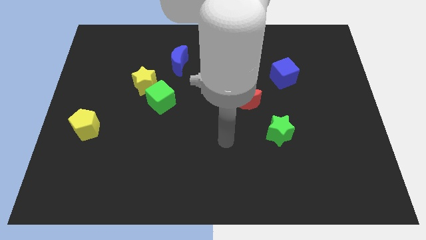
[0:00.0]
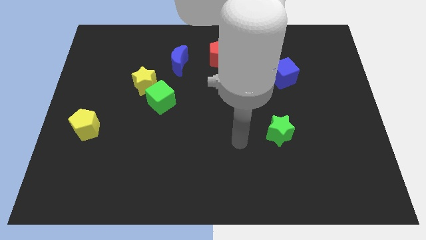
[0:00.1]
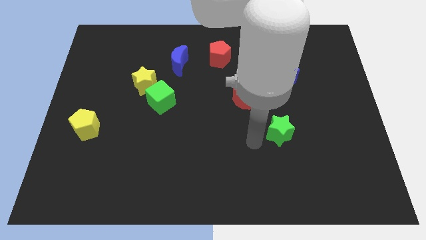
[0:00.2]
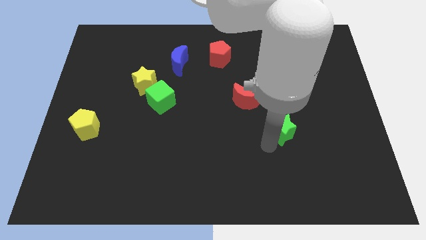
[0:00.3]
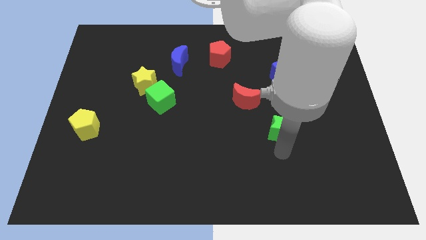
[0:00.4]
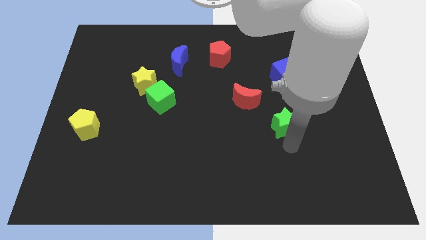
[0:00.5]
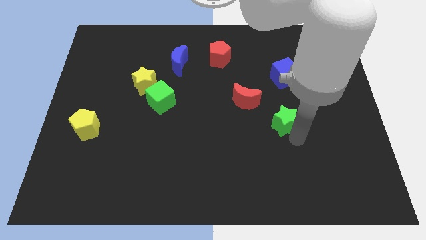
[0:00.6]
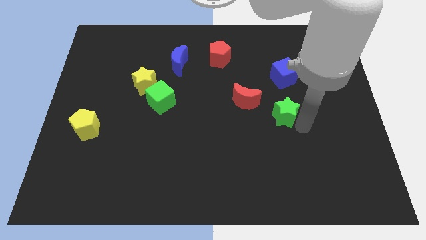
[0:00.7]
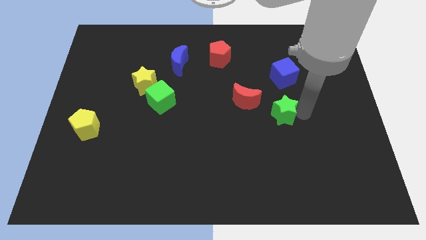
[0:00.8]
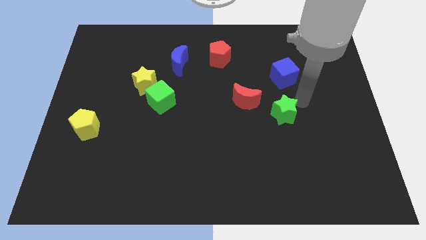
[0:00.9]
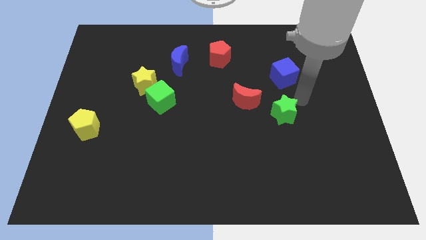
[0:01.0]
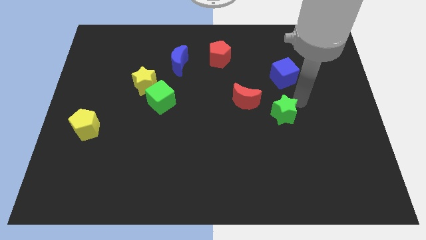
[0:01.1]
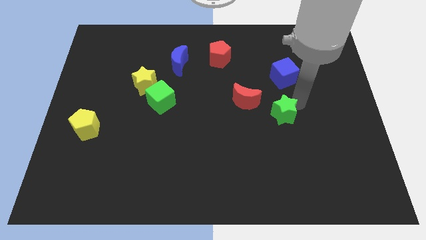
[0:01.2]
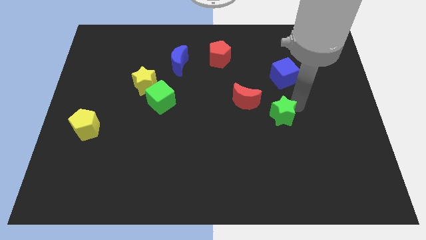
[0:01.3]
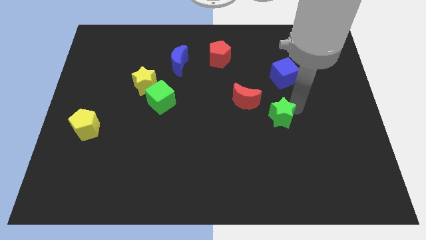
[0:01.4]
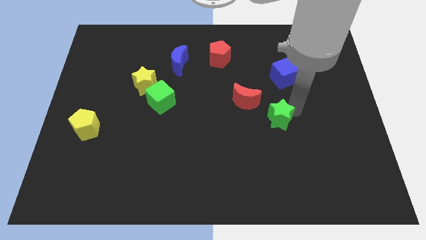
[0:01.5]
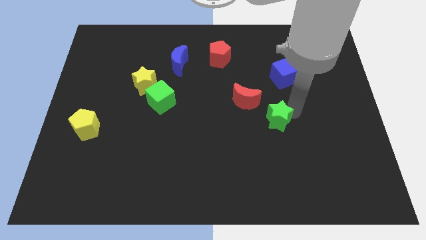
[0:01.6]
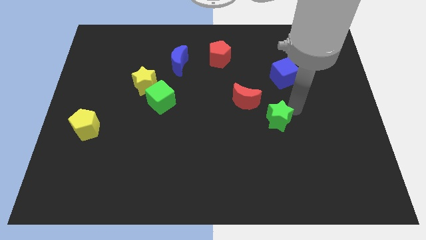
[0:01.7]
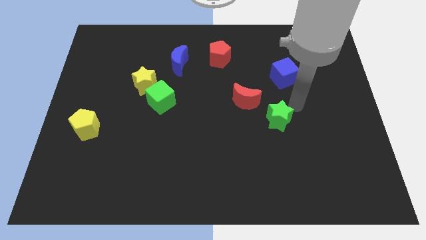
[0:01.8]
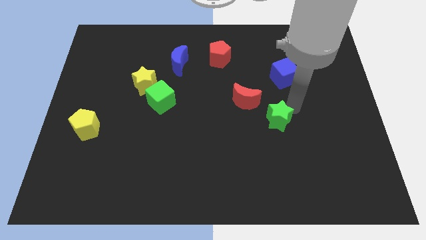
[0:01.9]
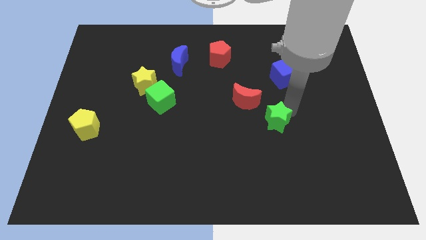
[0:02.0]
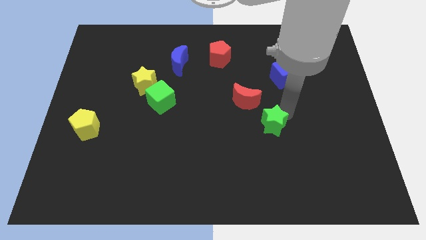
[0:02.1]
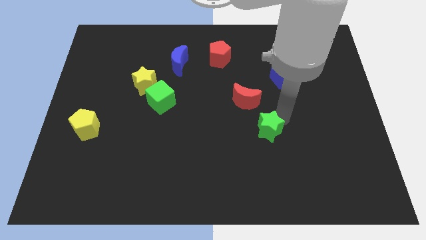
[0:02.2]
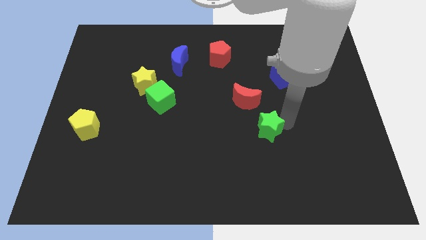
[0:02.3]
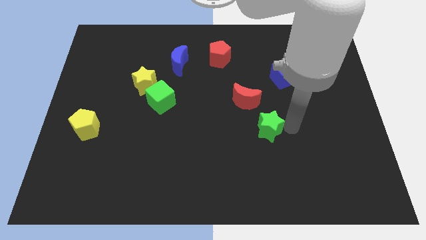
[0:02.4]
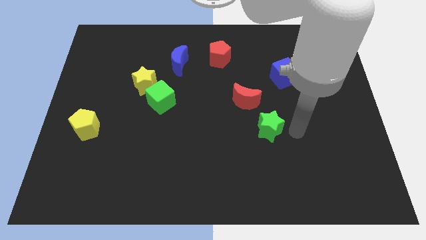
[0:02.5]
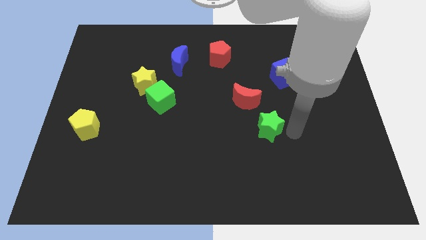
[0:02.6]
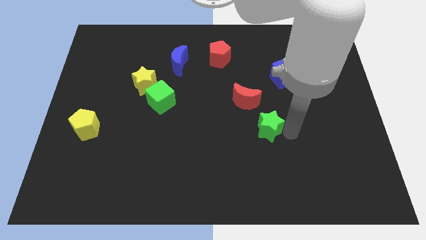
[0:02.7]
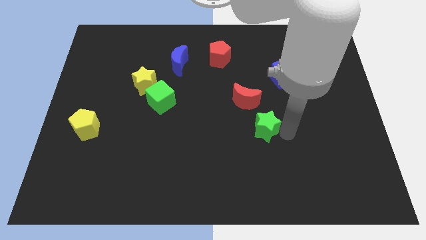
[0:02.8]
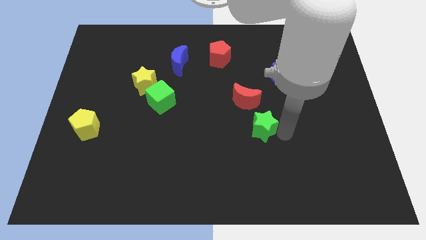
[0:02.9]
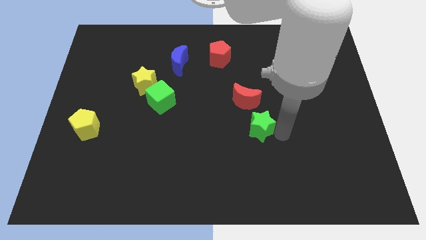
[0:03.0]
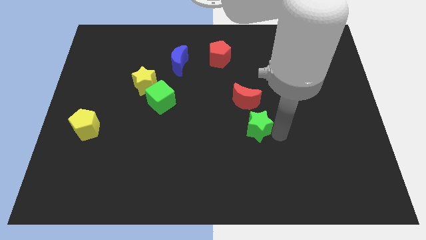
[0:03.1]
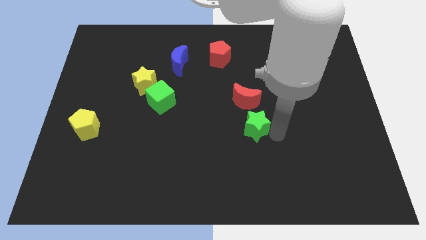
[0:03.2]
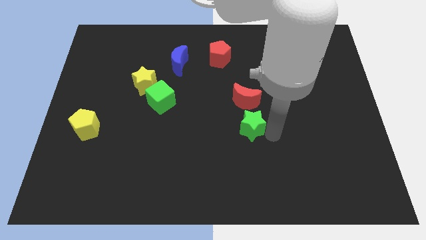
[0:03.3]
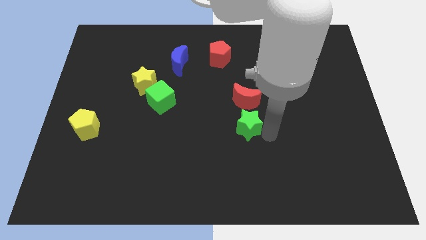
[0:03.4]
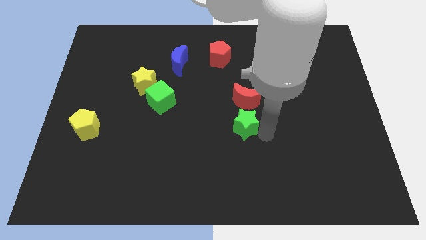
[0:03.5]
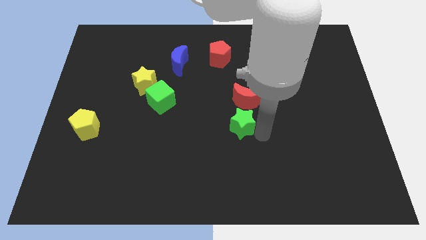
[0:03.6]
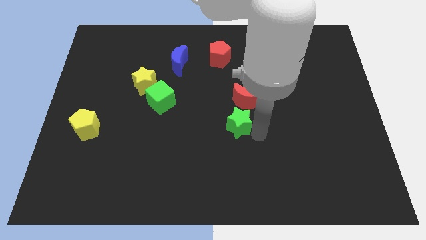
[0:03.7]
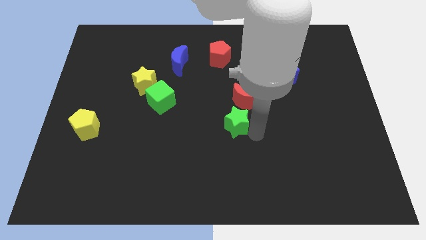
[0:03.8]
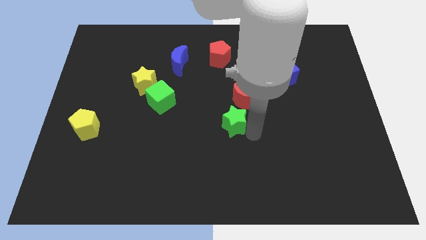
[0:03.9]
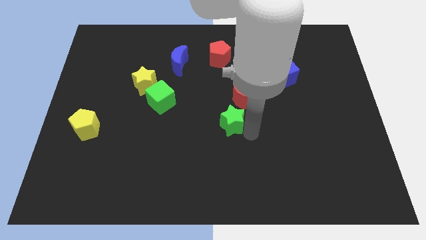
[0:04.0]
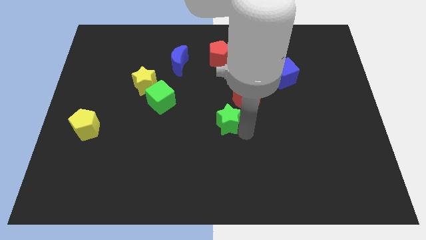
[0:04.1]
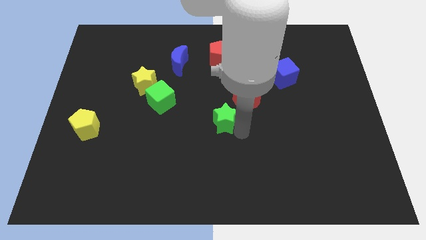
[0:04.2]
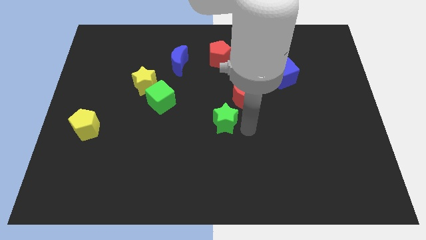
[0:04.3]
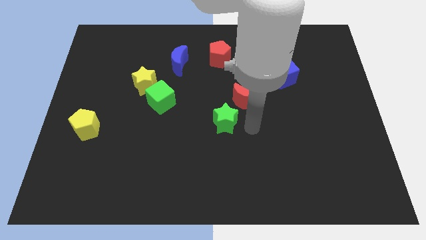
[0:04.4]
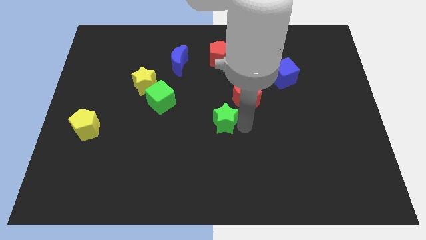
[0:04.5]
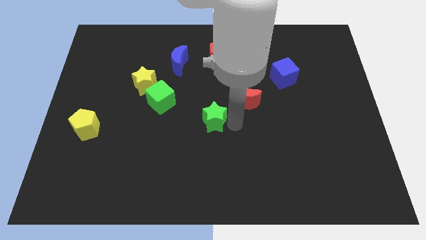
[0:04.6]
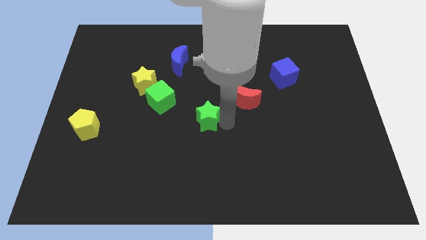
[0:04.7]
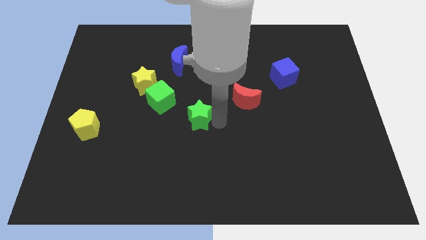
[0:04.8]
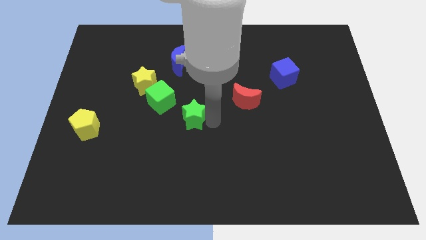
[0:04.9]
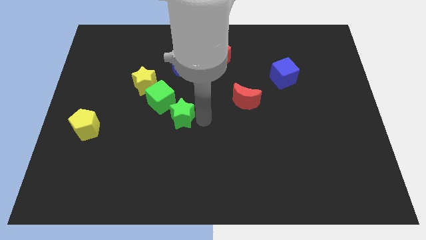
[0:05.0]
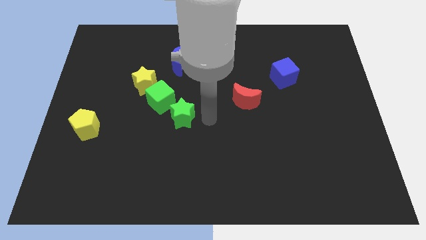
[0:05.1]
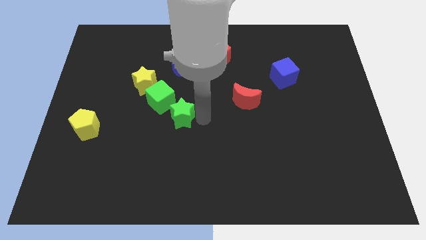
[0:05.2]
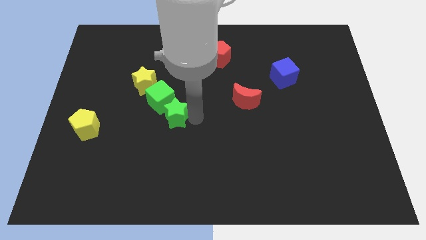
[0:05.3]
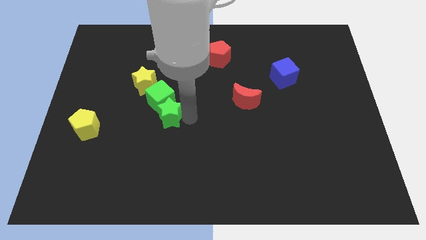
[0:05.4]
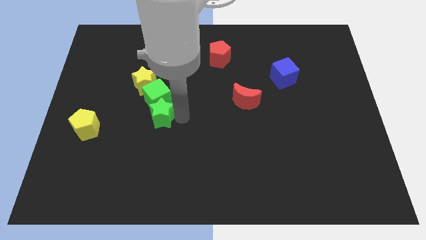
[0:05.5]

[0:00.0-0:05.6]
slide the green star below the yellow star

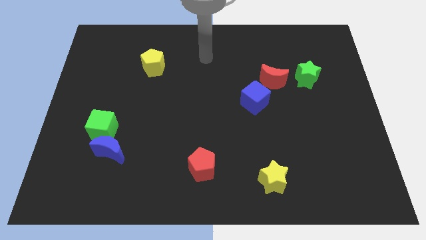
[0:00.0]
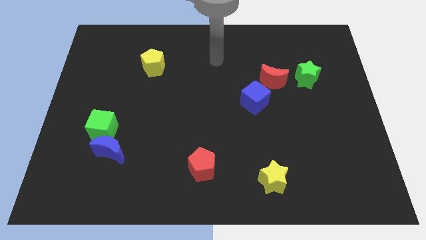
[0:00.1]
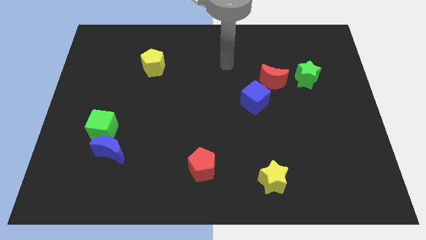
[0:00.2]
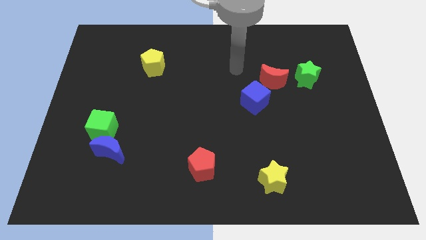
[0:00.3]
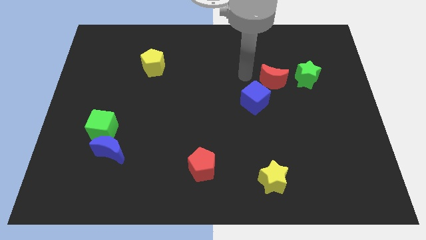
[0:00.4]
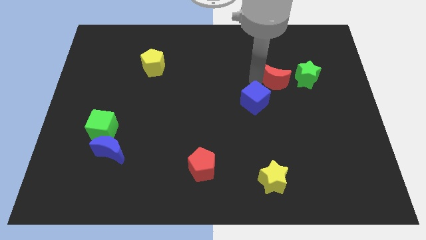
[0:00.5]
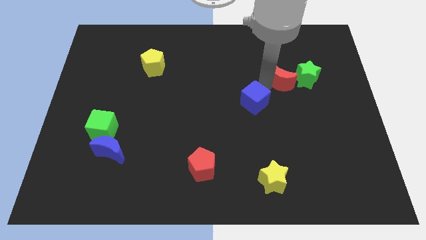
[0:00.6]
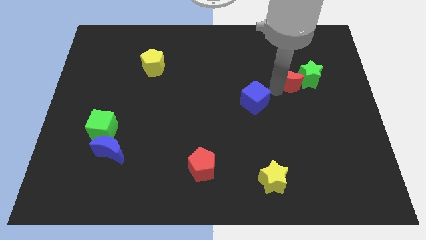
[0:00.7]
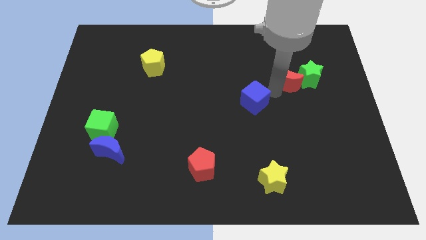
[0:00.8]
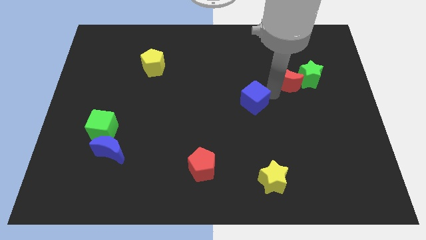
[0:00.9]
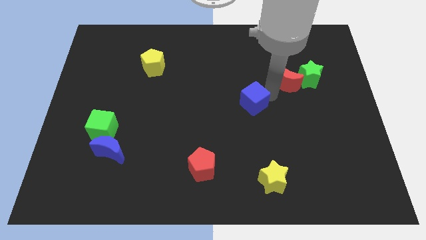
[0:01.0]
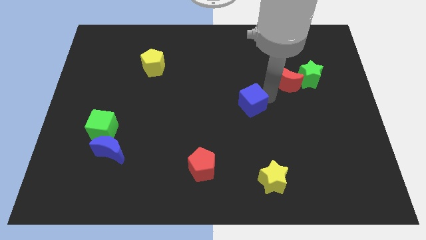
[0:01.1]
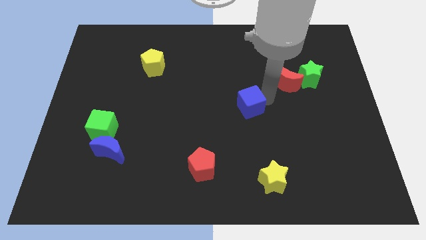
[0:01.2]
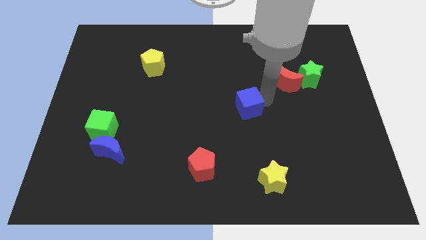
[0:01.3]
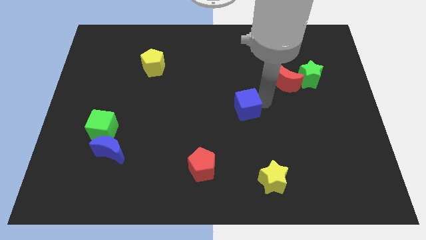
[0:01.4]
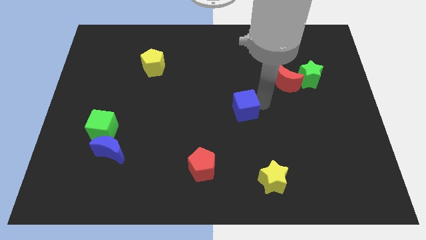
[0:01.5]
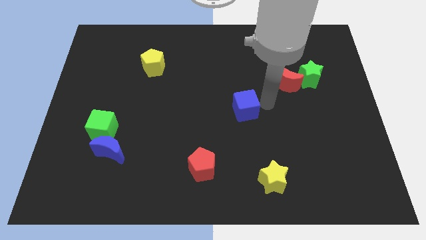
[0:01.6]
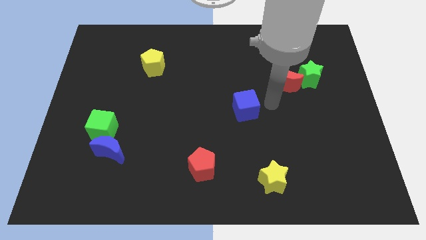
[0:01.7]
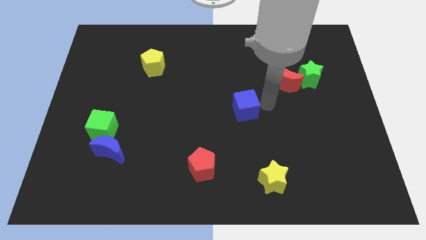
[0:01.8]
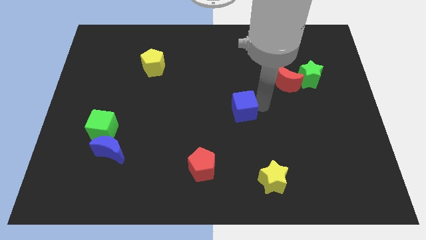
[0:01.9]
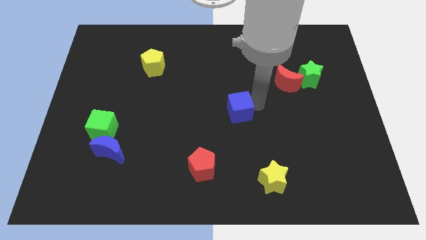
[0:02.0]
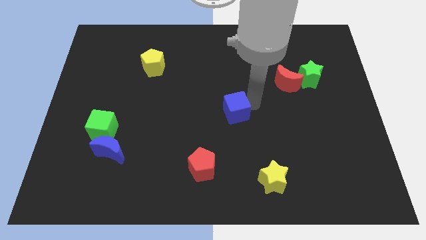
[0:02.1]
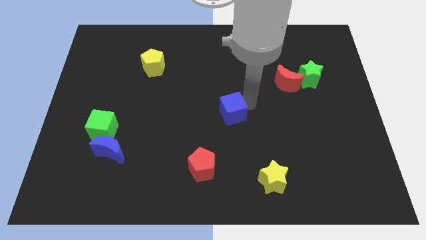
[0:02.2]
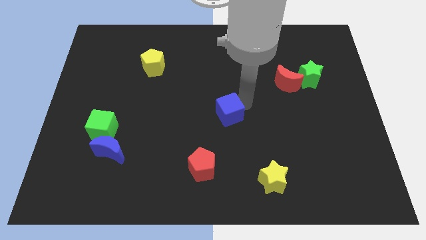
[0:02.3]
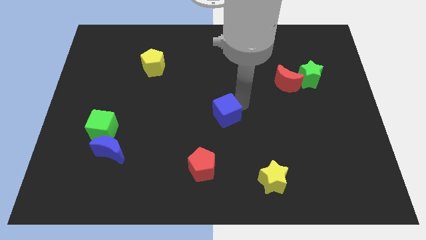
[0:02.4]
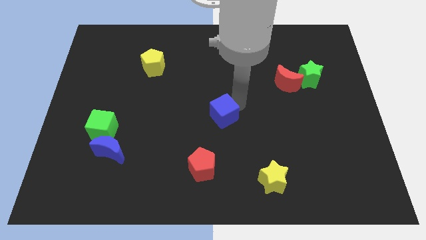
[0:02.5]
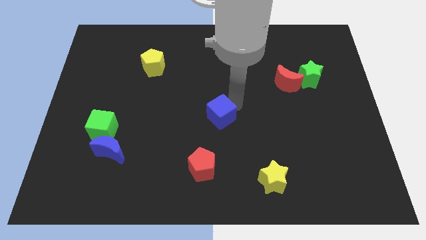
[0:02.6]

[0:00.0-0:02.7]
put the blue cube above the red pentagon
